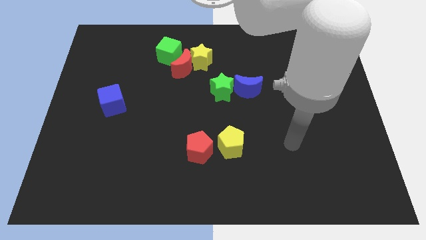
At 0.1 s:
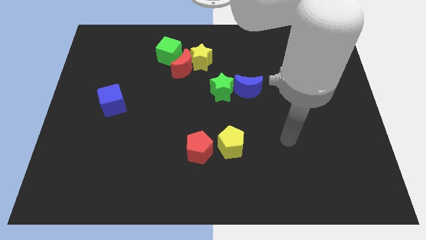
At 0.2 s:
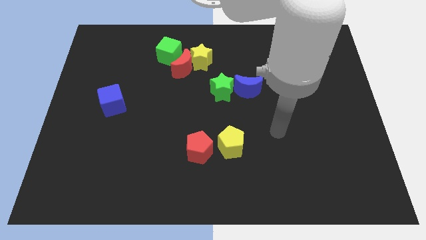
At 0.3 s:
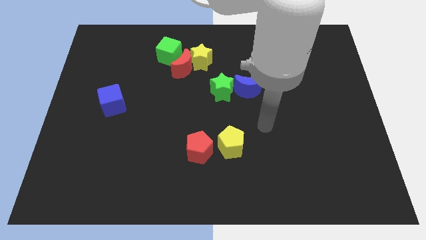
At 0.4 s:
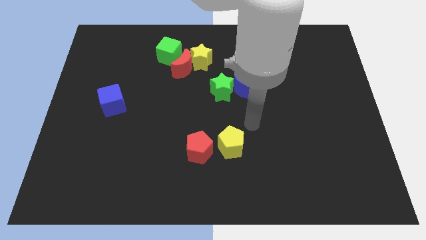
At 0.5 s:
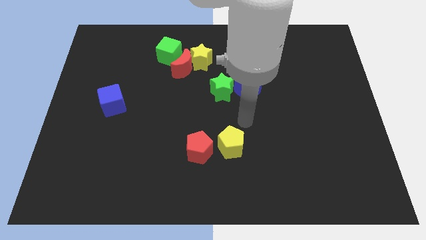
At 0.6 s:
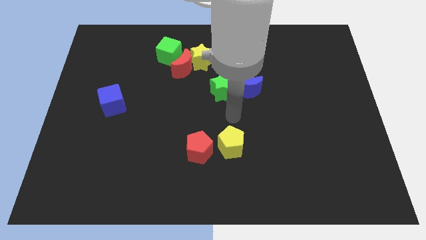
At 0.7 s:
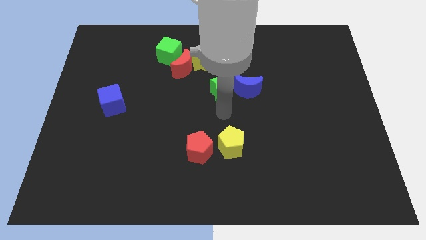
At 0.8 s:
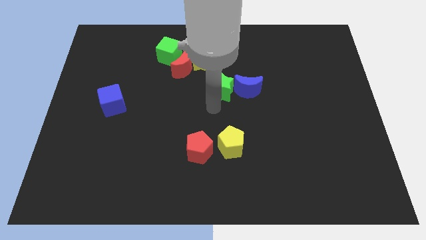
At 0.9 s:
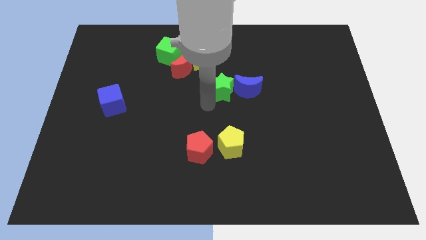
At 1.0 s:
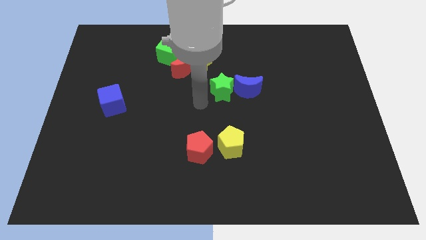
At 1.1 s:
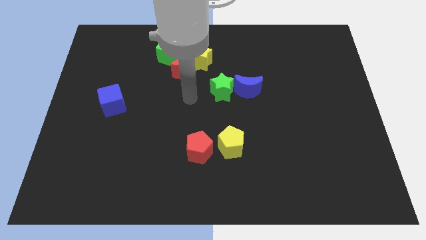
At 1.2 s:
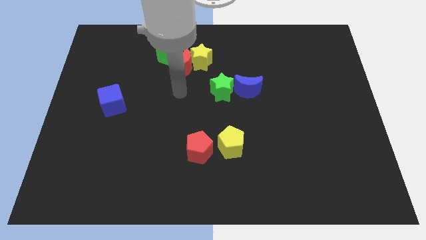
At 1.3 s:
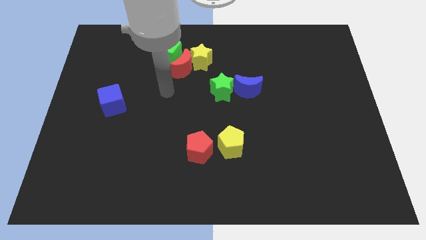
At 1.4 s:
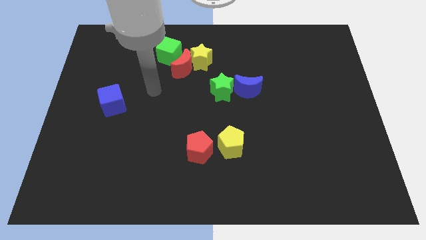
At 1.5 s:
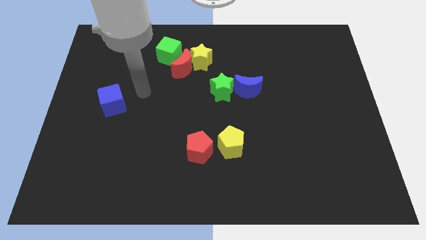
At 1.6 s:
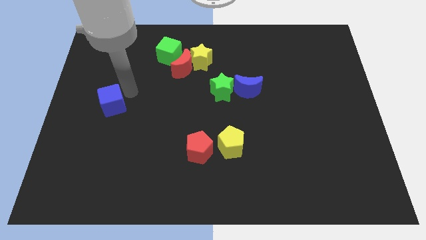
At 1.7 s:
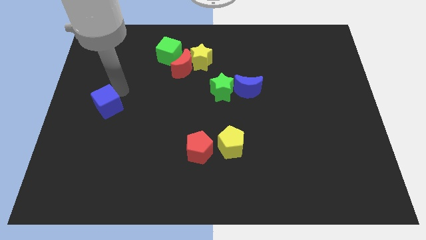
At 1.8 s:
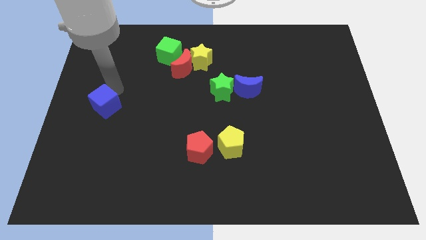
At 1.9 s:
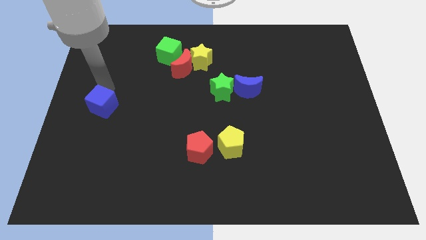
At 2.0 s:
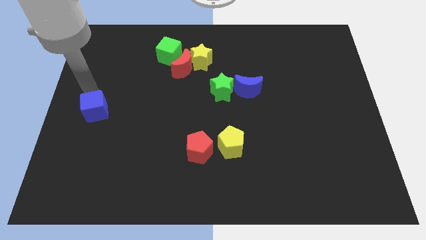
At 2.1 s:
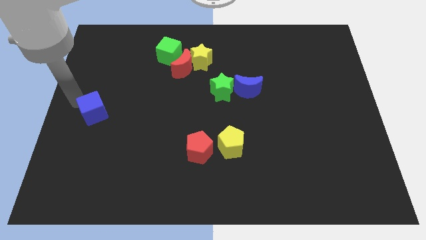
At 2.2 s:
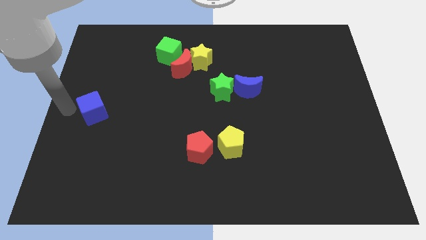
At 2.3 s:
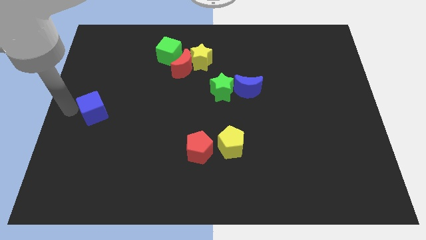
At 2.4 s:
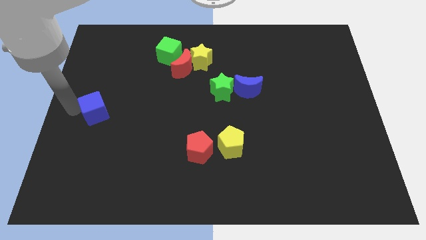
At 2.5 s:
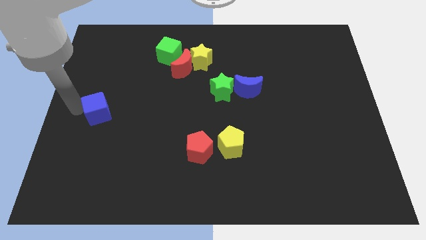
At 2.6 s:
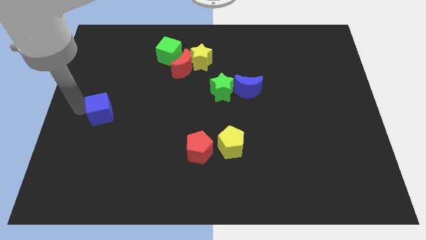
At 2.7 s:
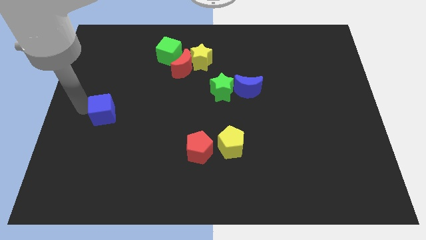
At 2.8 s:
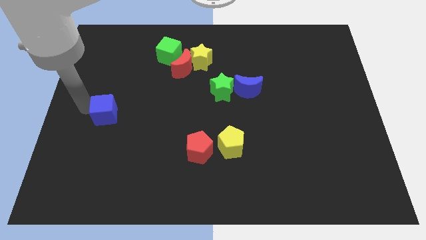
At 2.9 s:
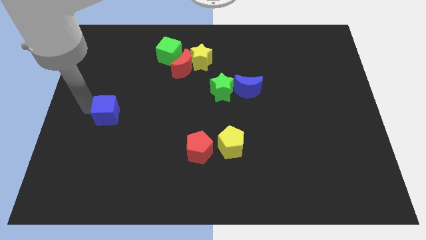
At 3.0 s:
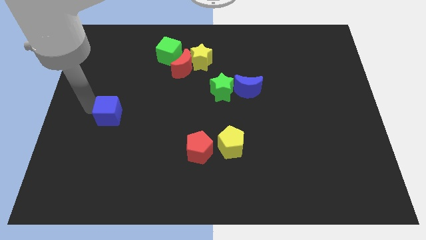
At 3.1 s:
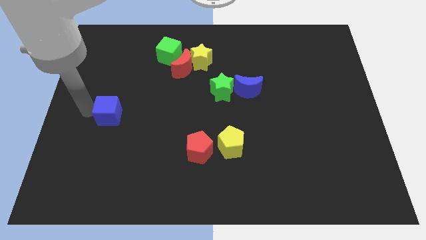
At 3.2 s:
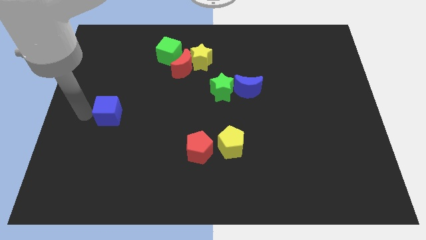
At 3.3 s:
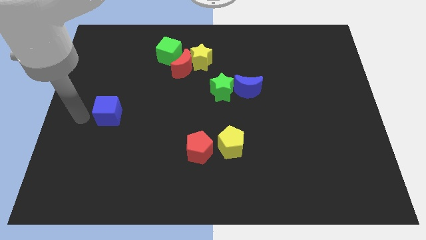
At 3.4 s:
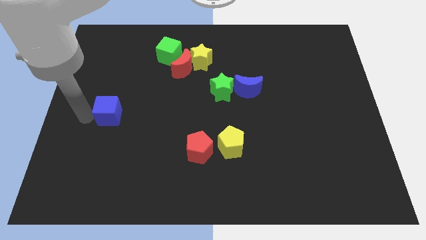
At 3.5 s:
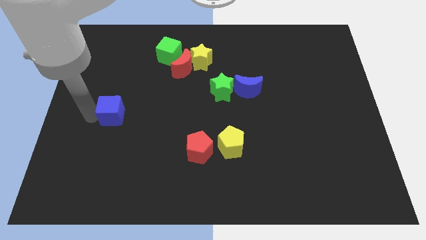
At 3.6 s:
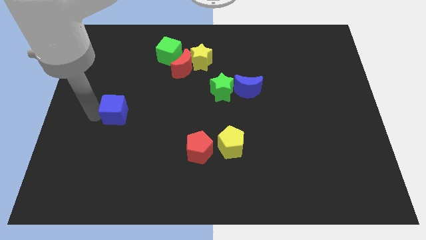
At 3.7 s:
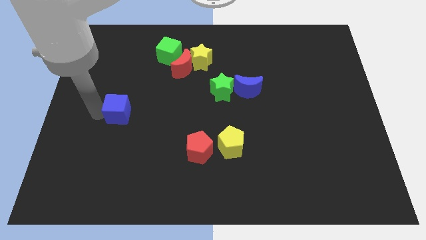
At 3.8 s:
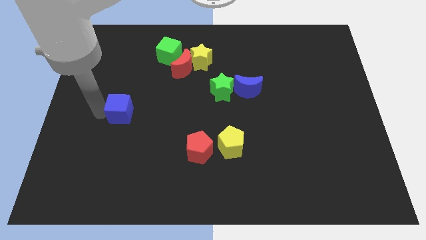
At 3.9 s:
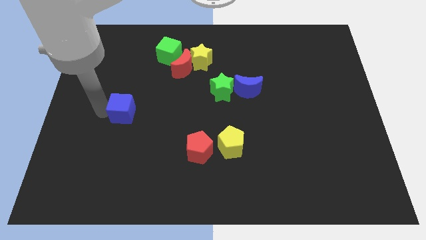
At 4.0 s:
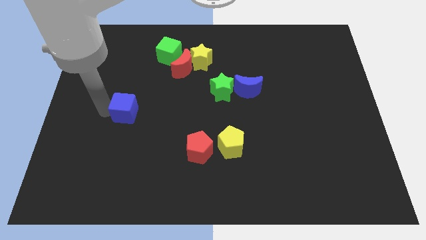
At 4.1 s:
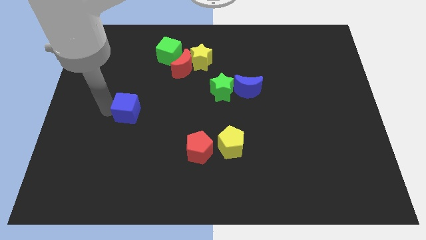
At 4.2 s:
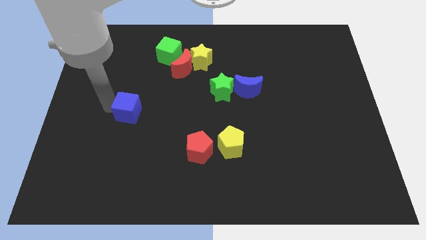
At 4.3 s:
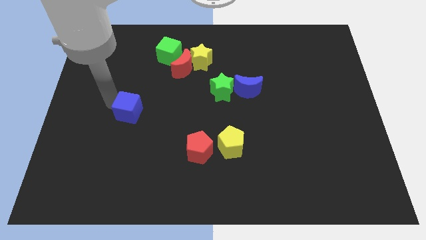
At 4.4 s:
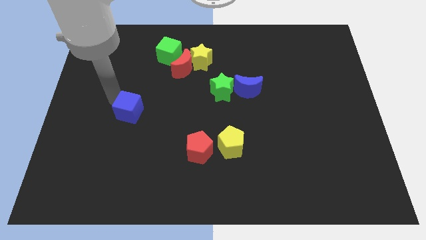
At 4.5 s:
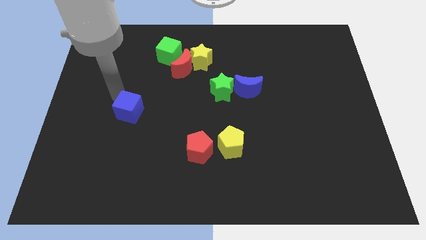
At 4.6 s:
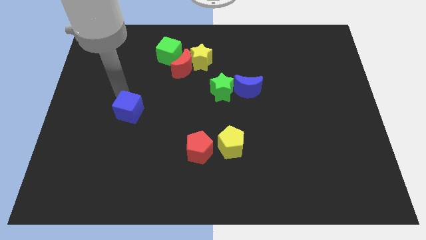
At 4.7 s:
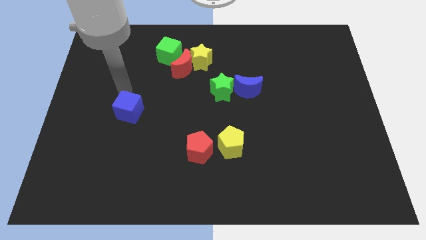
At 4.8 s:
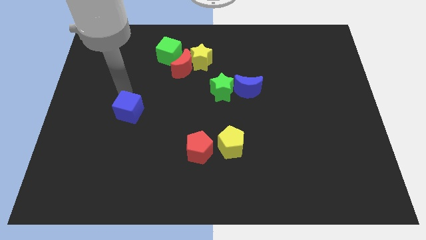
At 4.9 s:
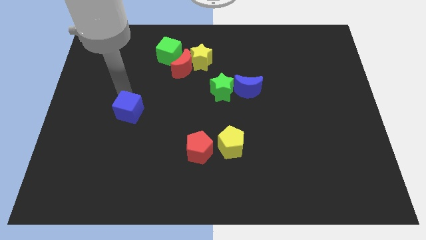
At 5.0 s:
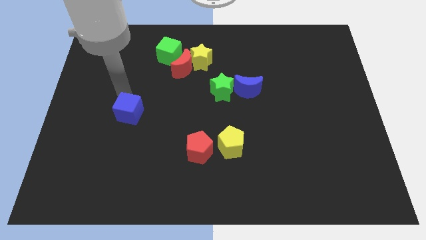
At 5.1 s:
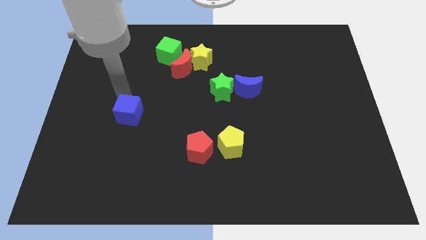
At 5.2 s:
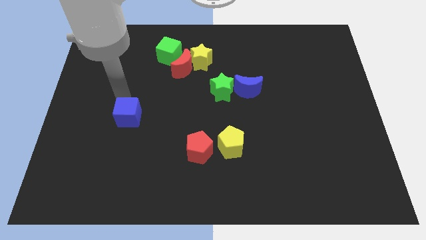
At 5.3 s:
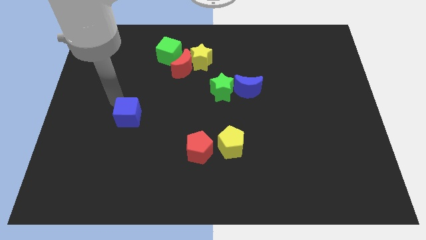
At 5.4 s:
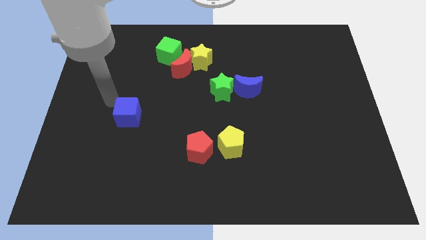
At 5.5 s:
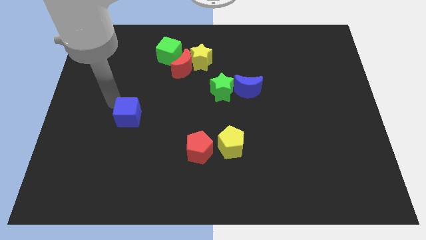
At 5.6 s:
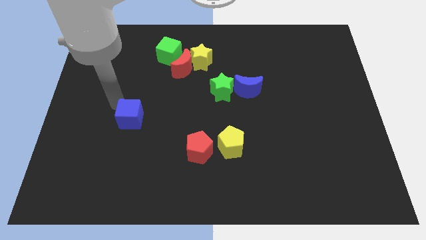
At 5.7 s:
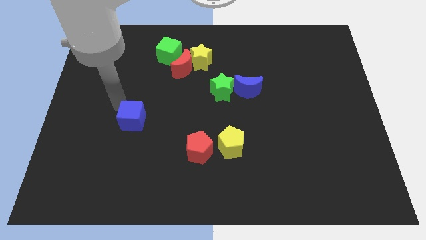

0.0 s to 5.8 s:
slightly move the blue cube downwards and to the right

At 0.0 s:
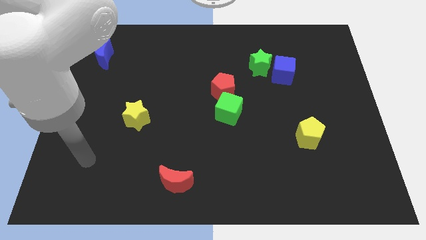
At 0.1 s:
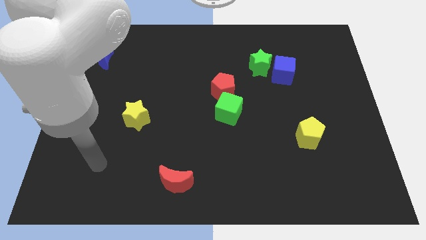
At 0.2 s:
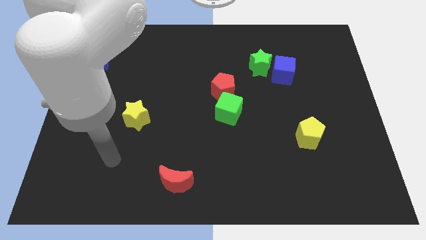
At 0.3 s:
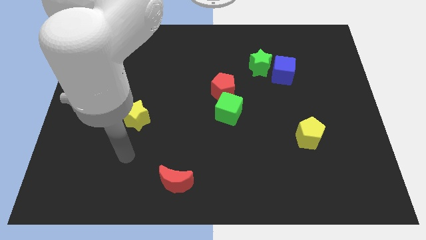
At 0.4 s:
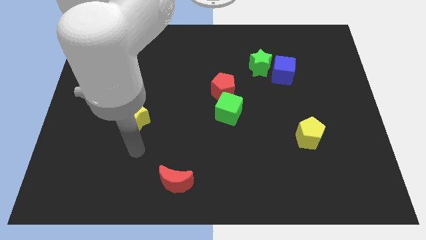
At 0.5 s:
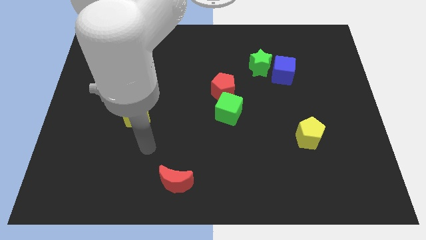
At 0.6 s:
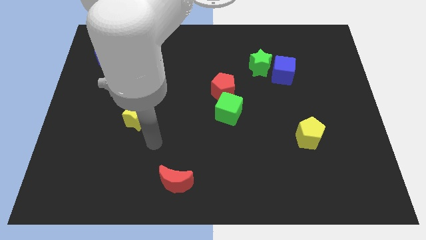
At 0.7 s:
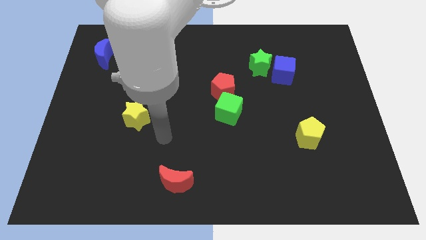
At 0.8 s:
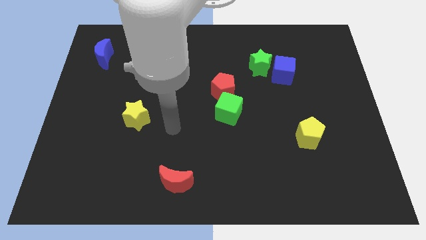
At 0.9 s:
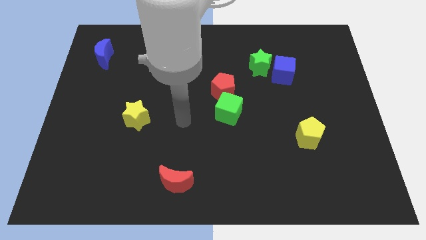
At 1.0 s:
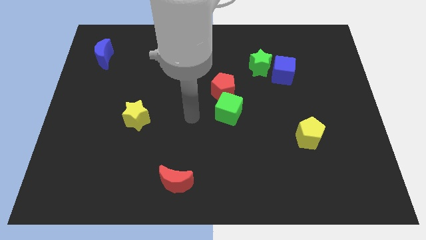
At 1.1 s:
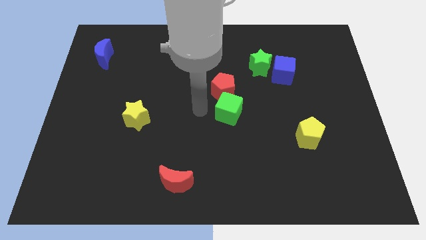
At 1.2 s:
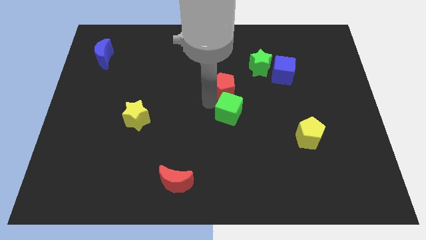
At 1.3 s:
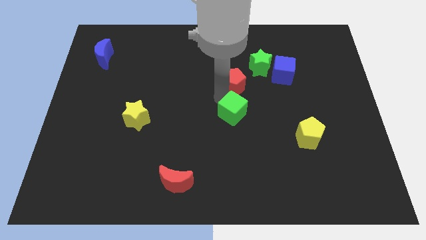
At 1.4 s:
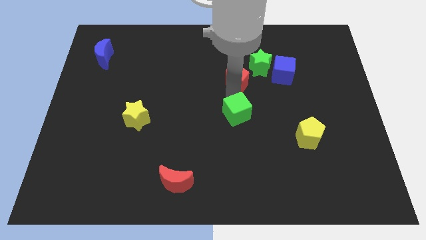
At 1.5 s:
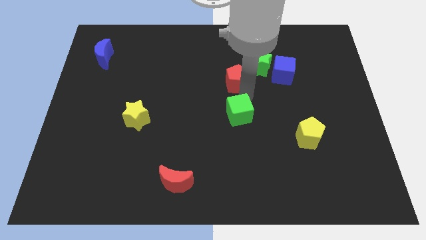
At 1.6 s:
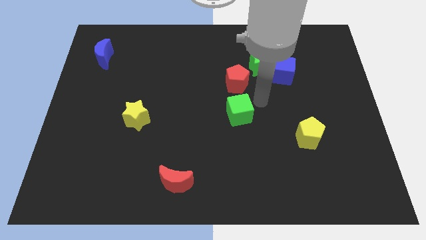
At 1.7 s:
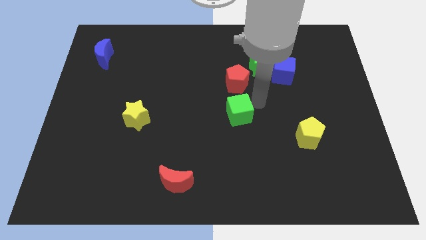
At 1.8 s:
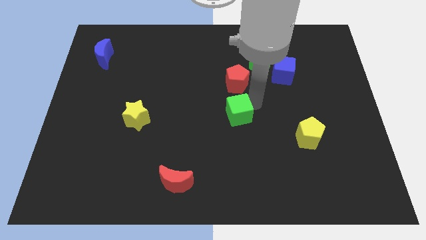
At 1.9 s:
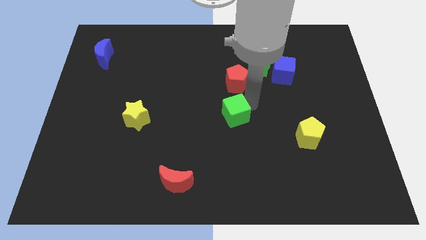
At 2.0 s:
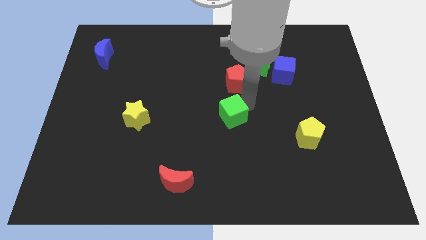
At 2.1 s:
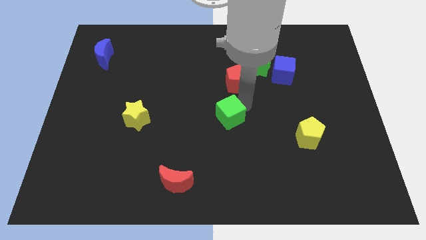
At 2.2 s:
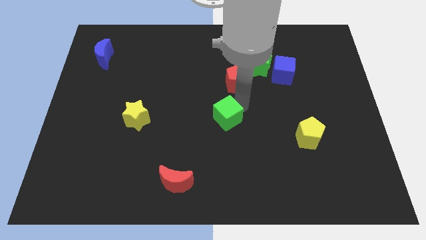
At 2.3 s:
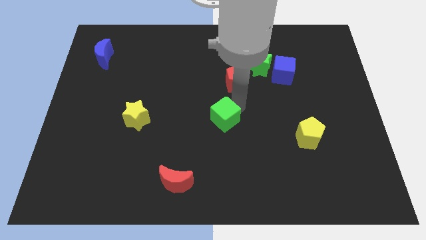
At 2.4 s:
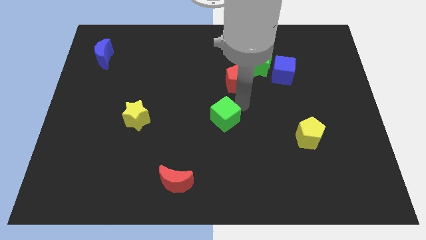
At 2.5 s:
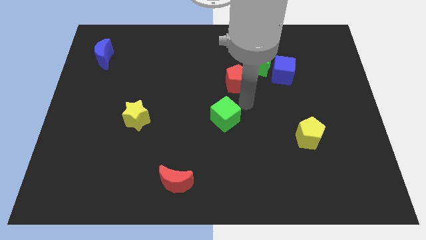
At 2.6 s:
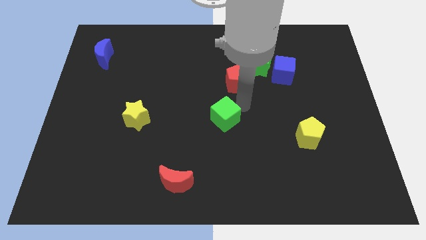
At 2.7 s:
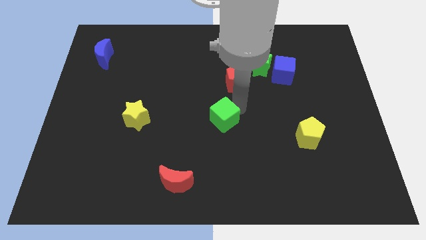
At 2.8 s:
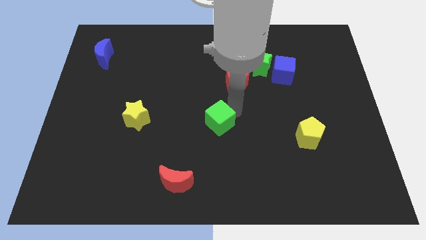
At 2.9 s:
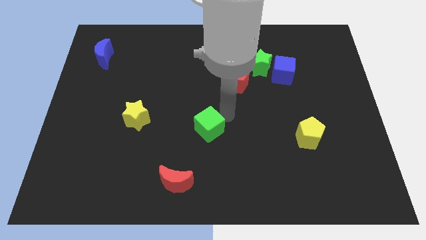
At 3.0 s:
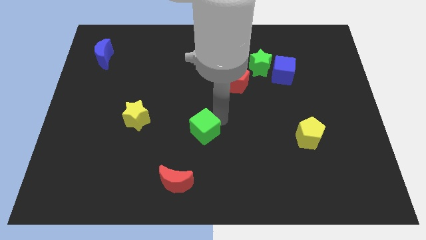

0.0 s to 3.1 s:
move the green cube diagonally downwards and to the left somewhat
